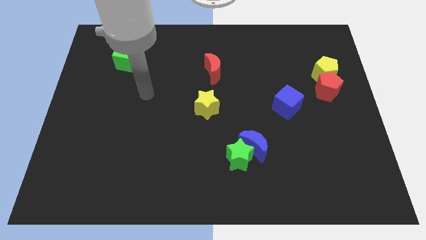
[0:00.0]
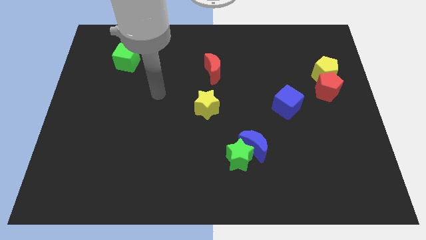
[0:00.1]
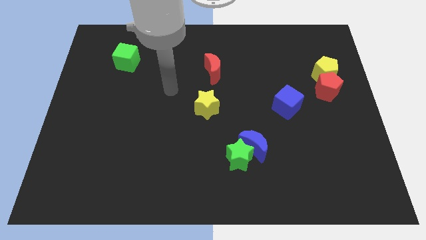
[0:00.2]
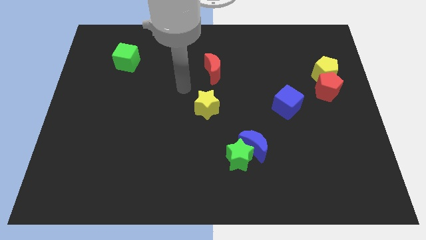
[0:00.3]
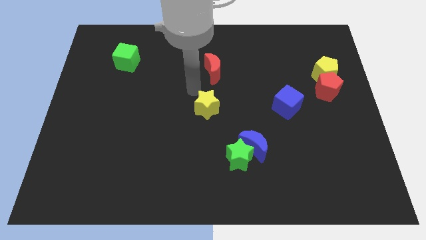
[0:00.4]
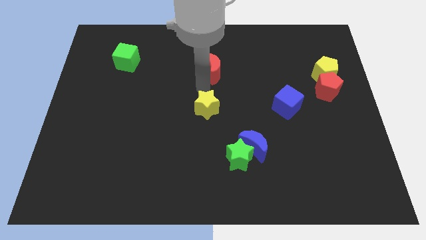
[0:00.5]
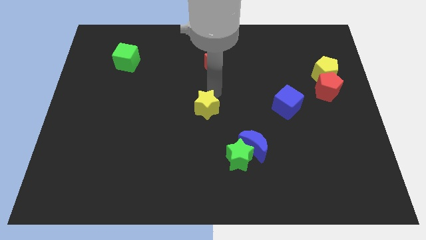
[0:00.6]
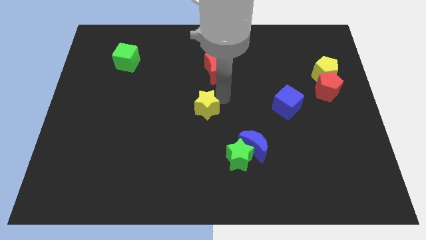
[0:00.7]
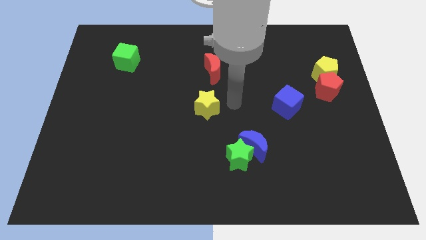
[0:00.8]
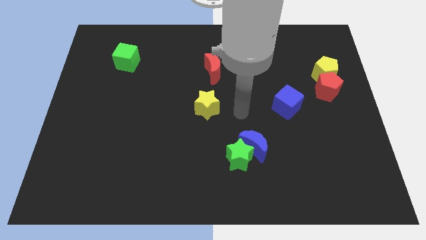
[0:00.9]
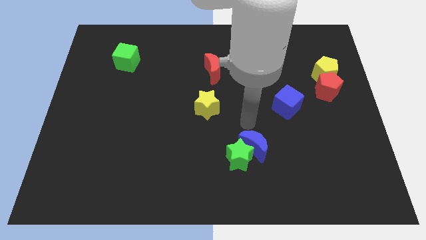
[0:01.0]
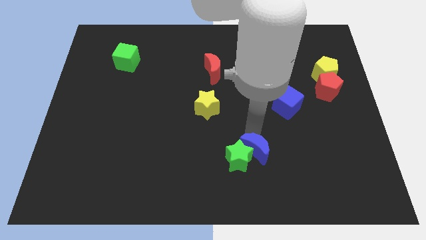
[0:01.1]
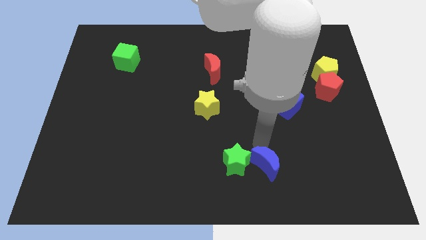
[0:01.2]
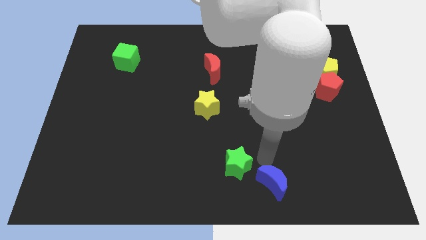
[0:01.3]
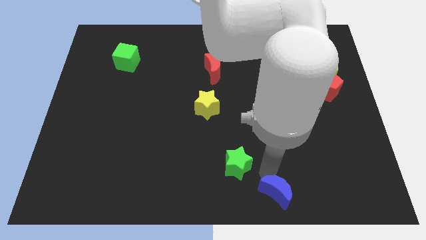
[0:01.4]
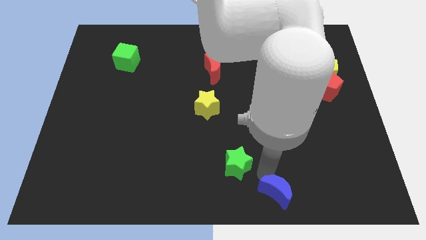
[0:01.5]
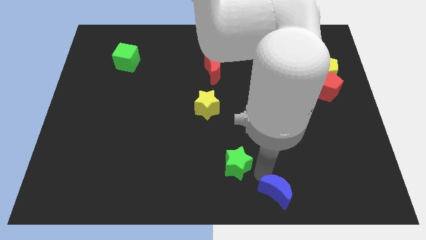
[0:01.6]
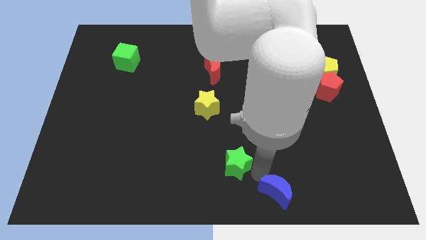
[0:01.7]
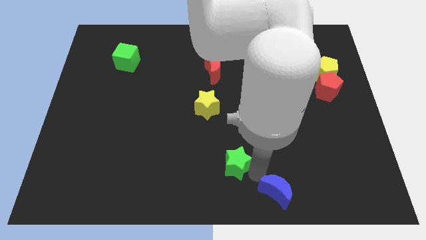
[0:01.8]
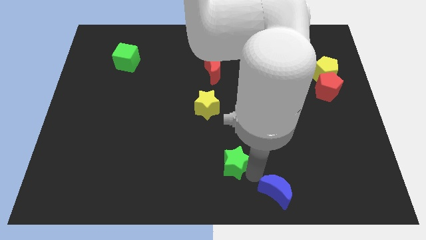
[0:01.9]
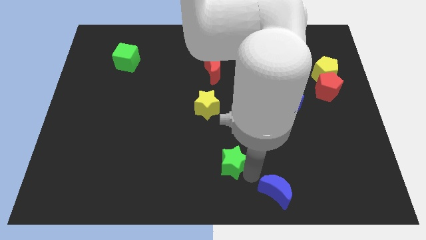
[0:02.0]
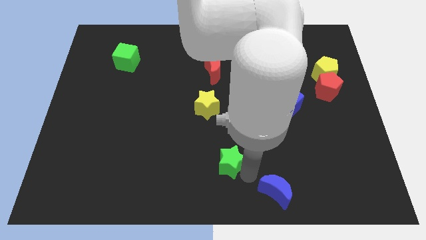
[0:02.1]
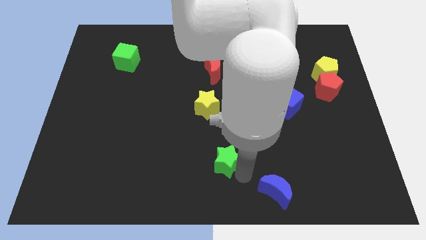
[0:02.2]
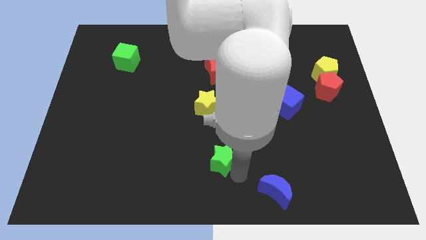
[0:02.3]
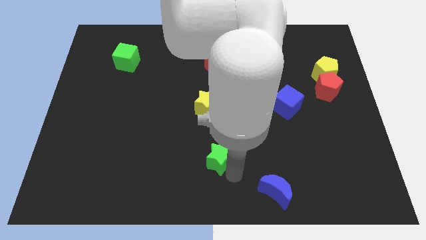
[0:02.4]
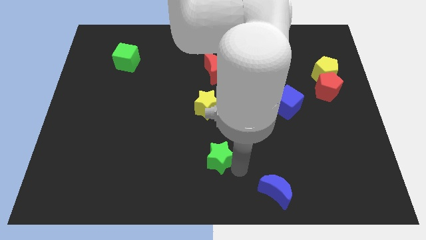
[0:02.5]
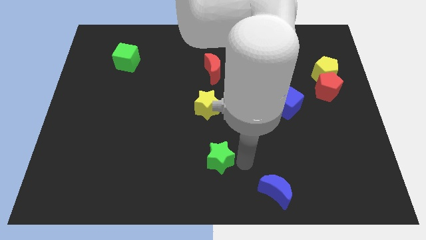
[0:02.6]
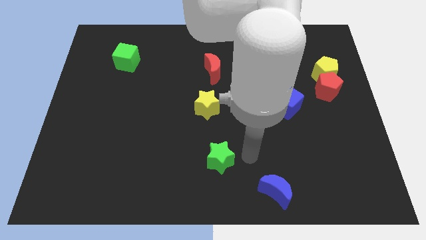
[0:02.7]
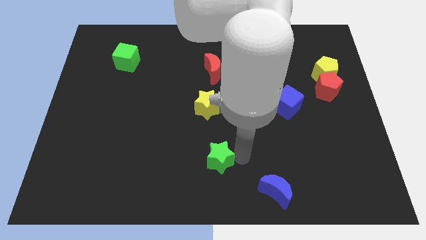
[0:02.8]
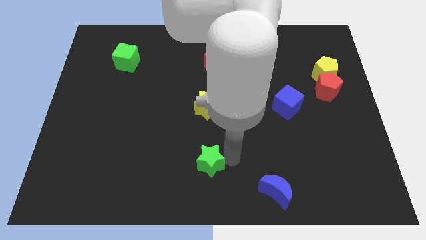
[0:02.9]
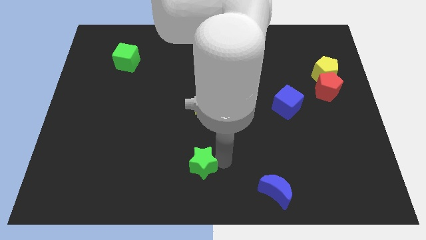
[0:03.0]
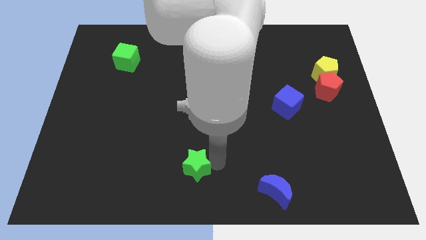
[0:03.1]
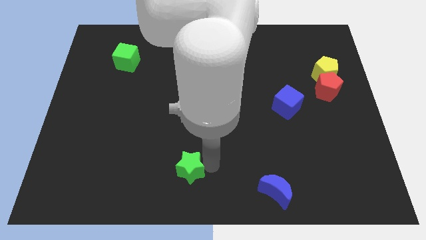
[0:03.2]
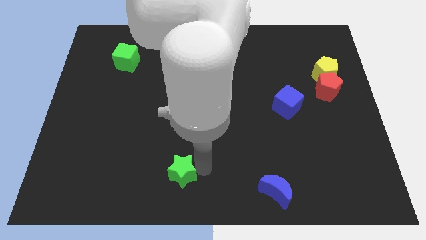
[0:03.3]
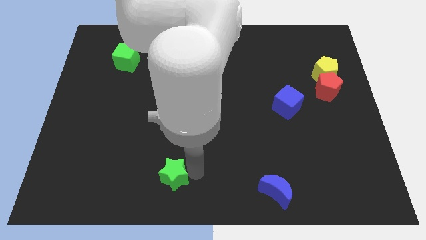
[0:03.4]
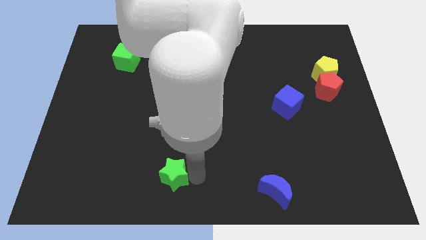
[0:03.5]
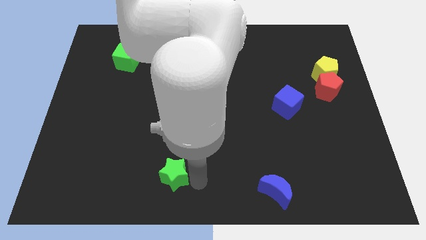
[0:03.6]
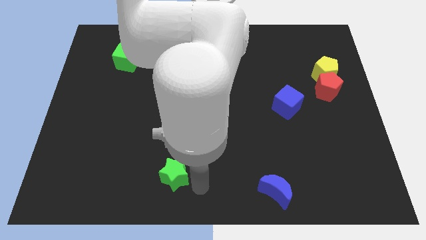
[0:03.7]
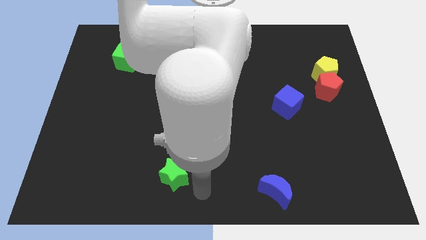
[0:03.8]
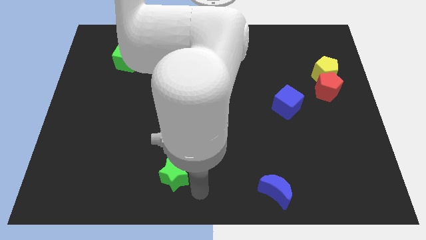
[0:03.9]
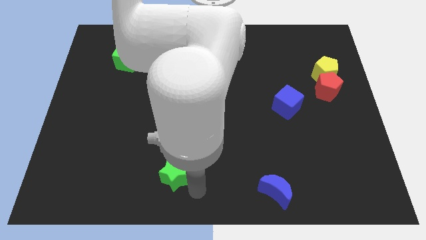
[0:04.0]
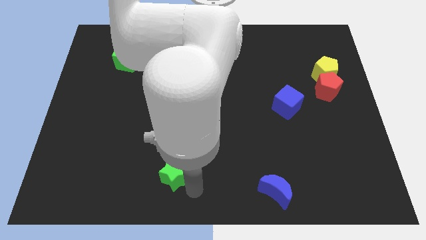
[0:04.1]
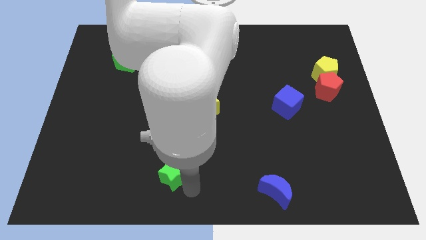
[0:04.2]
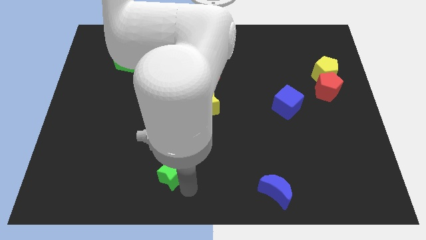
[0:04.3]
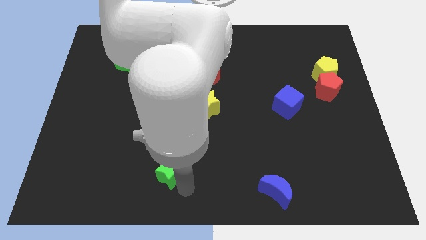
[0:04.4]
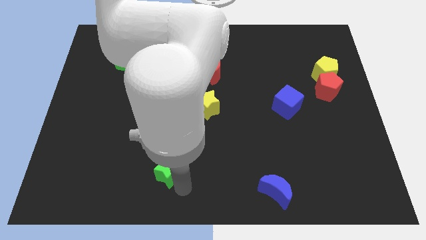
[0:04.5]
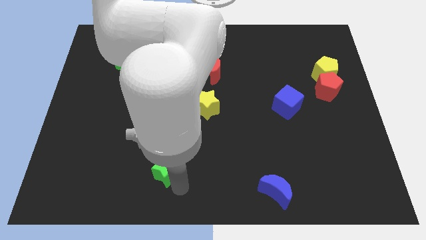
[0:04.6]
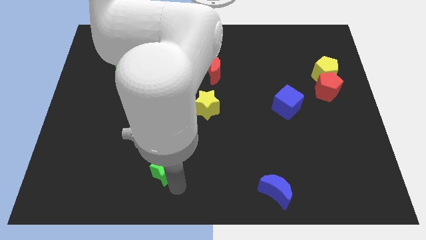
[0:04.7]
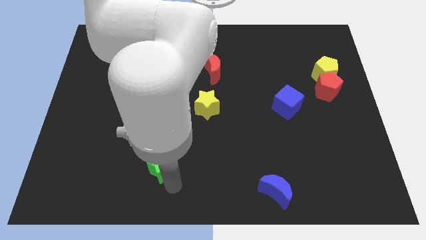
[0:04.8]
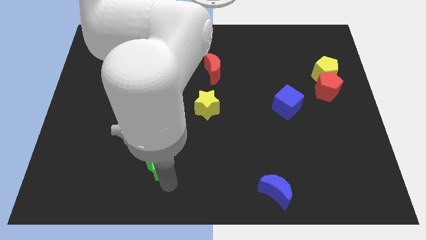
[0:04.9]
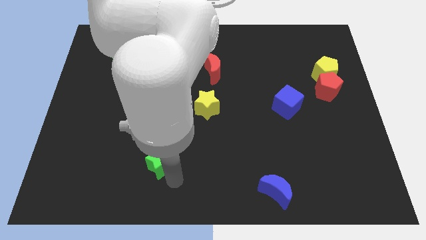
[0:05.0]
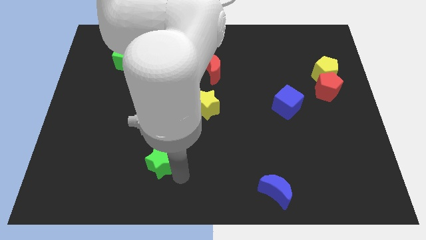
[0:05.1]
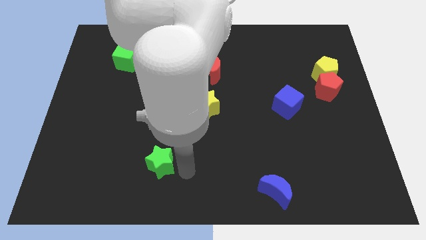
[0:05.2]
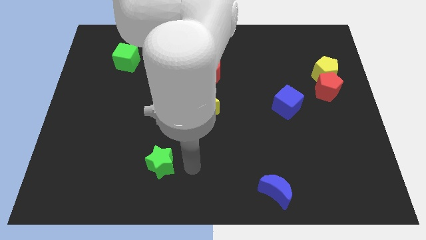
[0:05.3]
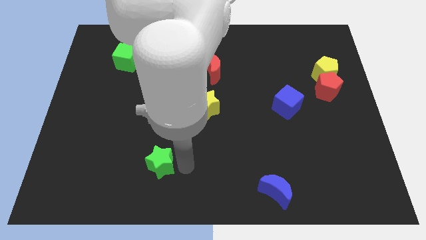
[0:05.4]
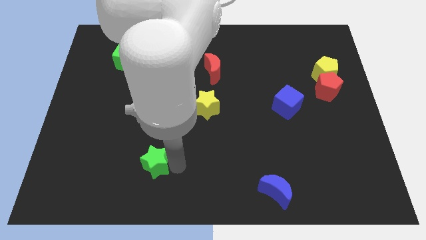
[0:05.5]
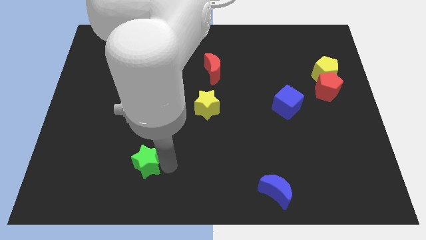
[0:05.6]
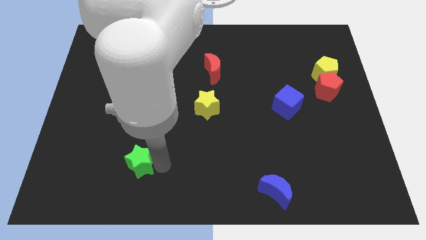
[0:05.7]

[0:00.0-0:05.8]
push the green star to the left

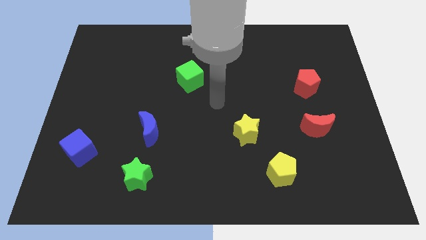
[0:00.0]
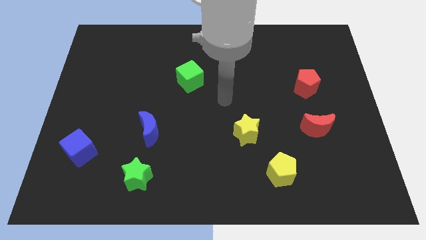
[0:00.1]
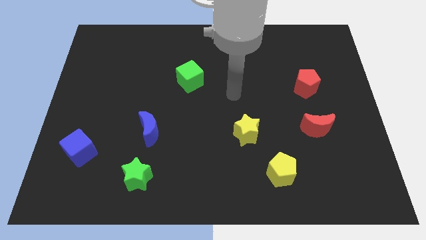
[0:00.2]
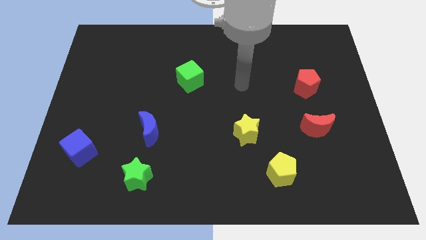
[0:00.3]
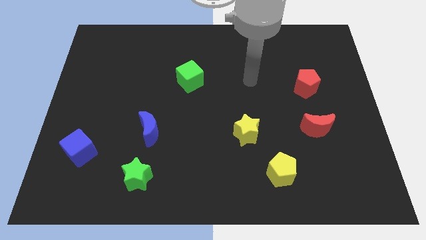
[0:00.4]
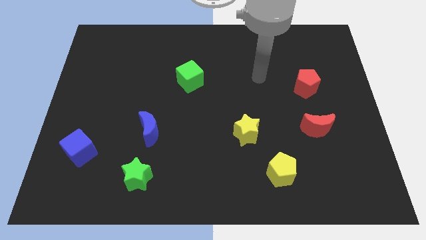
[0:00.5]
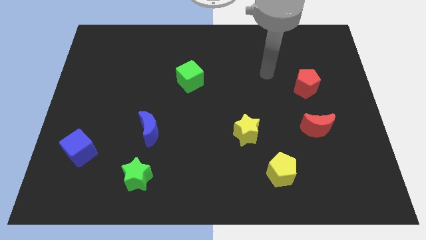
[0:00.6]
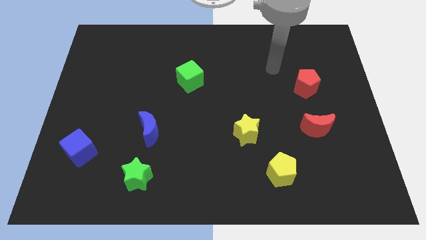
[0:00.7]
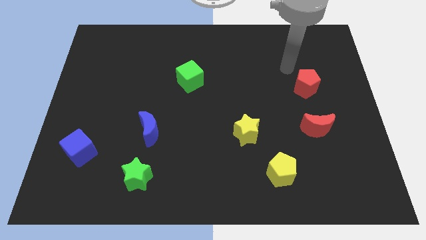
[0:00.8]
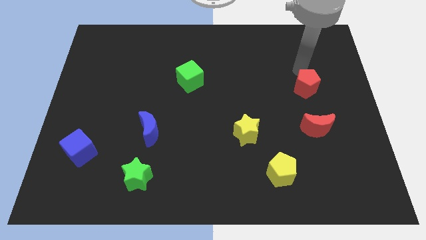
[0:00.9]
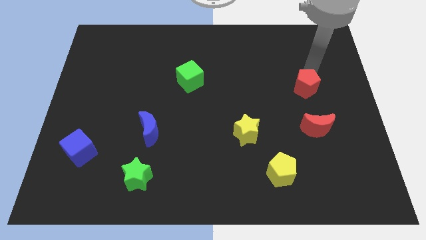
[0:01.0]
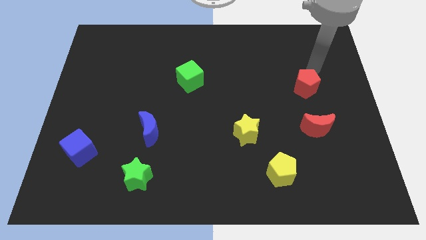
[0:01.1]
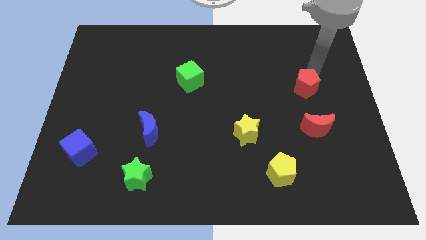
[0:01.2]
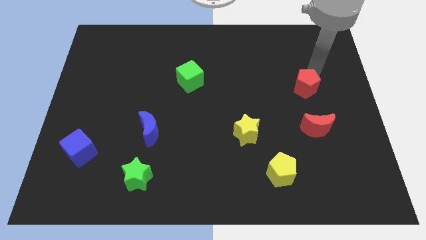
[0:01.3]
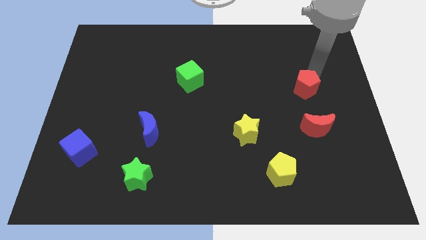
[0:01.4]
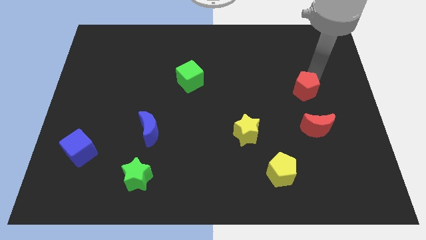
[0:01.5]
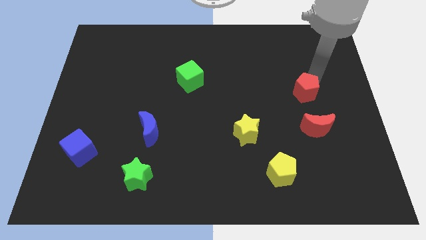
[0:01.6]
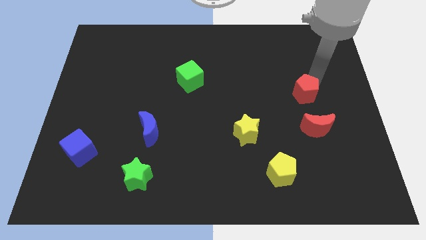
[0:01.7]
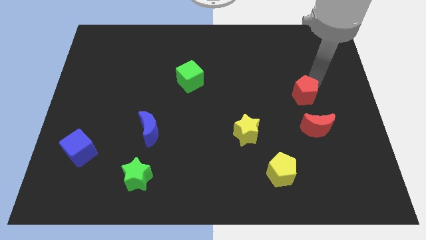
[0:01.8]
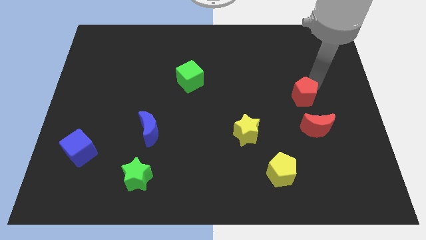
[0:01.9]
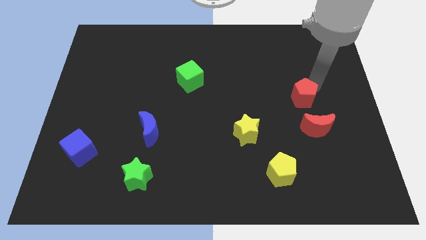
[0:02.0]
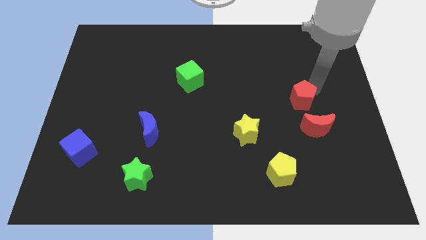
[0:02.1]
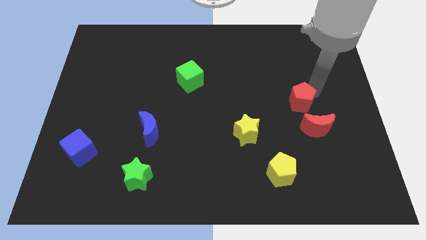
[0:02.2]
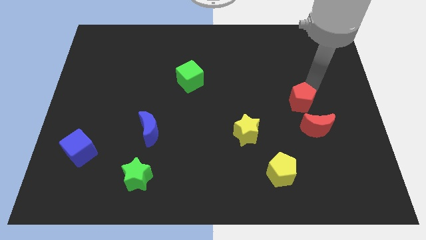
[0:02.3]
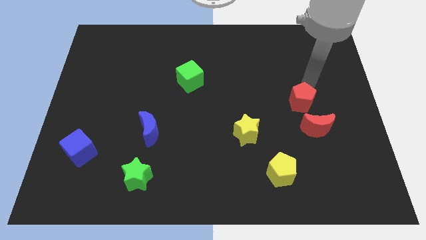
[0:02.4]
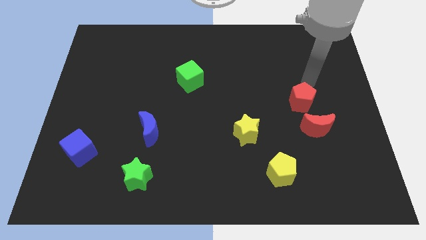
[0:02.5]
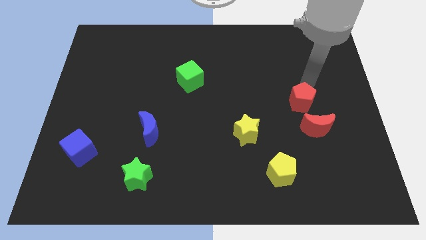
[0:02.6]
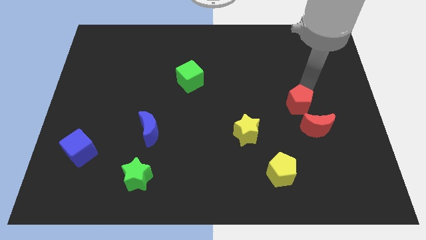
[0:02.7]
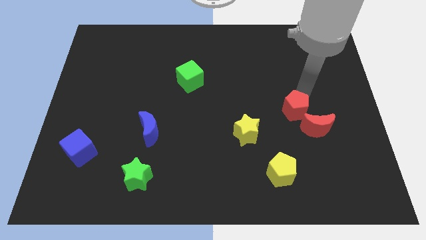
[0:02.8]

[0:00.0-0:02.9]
slightly slide the red pentagon downwards

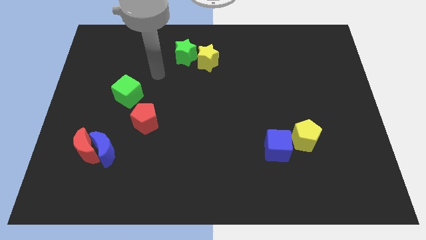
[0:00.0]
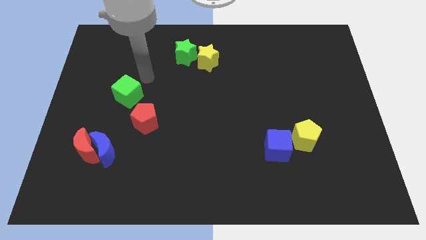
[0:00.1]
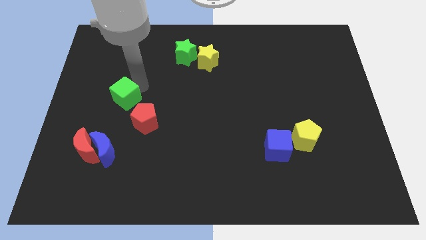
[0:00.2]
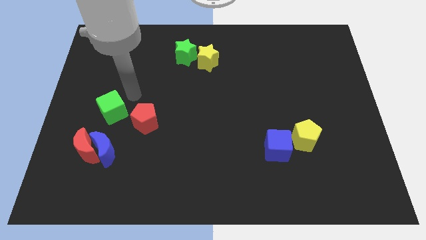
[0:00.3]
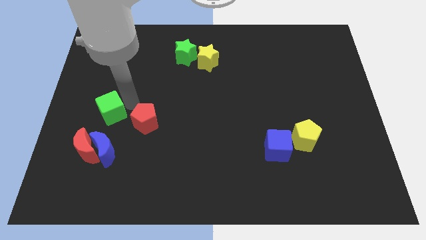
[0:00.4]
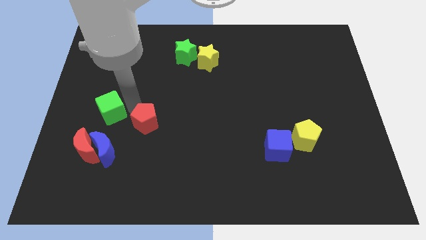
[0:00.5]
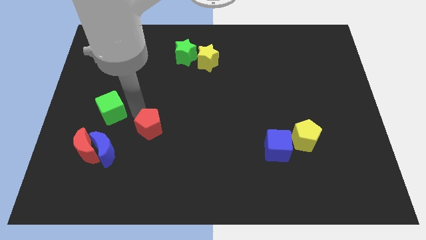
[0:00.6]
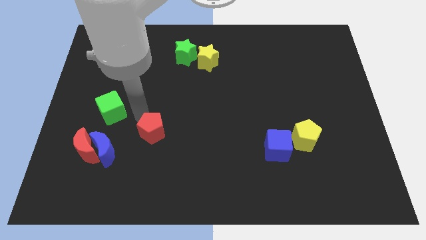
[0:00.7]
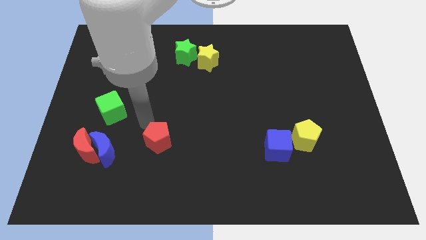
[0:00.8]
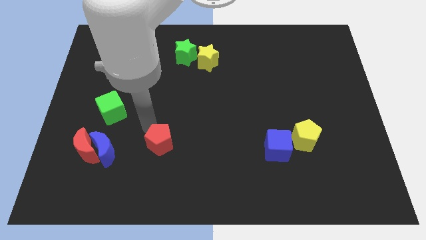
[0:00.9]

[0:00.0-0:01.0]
push the red pentagon a little downwards and to the right
